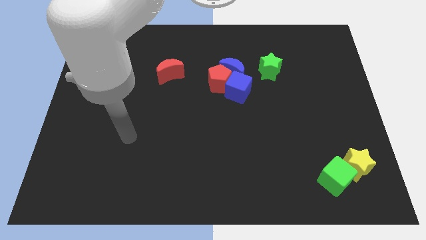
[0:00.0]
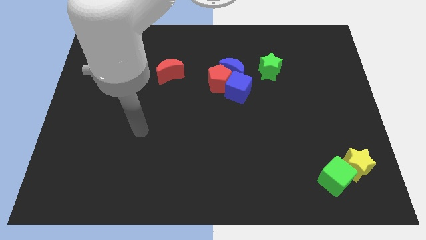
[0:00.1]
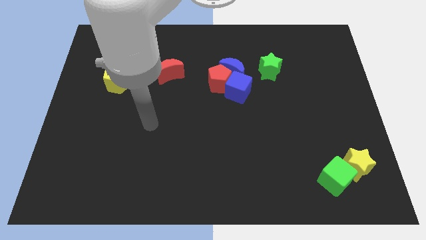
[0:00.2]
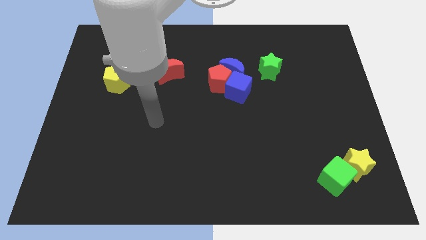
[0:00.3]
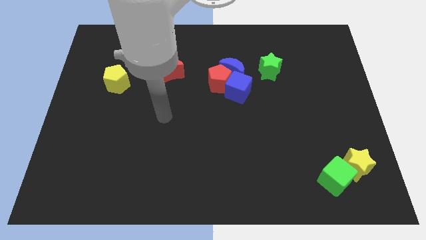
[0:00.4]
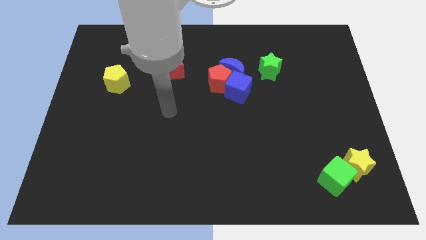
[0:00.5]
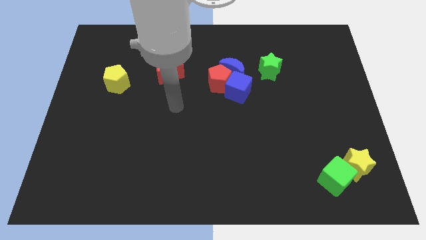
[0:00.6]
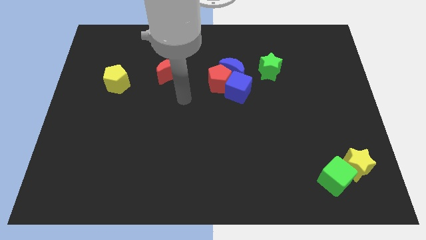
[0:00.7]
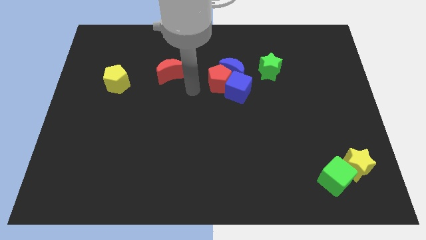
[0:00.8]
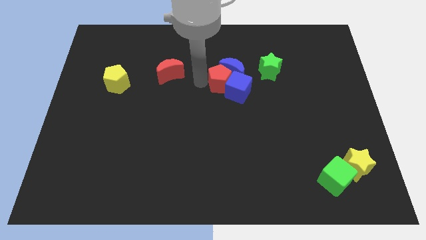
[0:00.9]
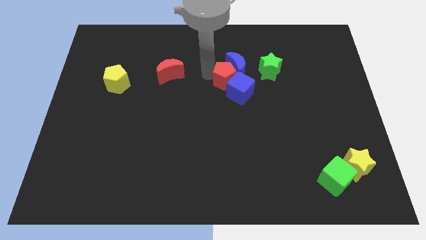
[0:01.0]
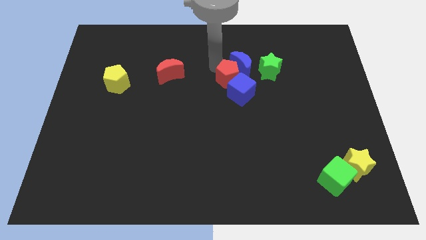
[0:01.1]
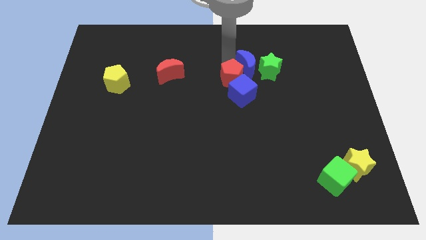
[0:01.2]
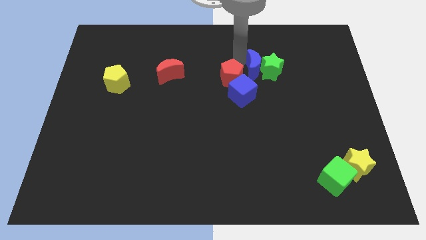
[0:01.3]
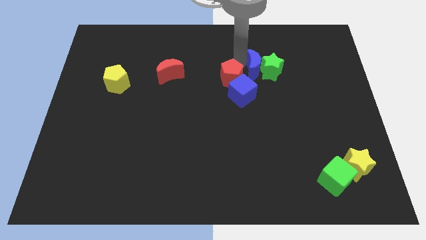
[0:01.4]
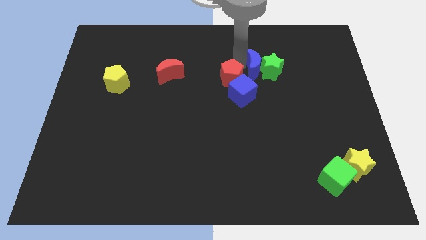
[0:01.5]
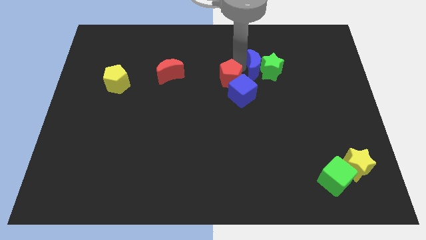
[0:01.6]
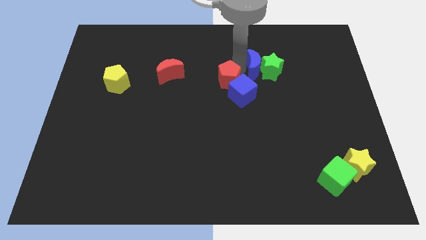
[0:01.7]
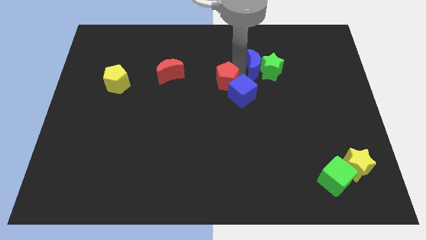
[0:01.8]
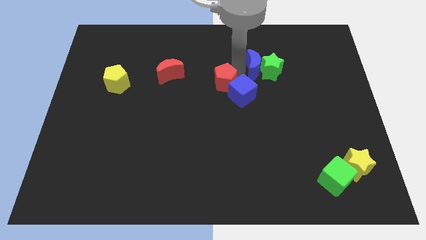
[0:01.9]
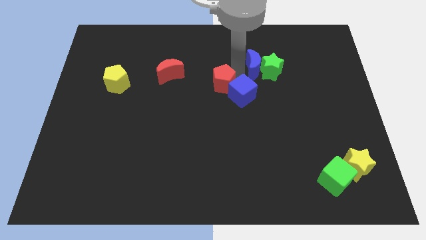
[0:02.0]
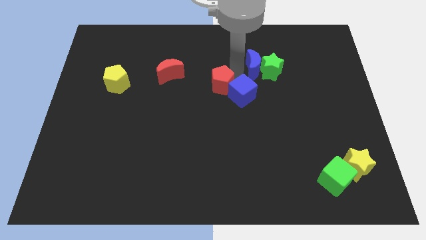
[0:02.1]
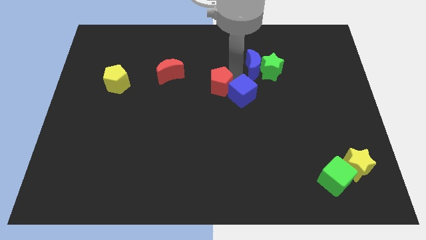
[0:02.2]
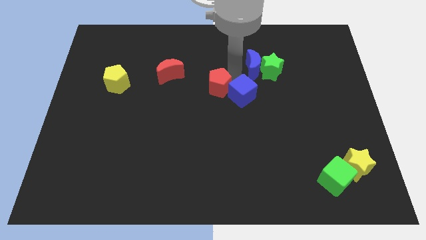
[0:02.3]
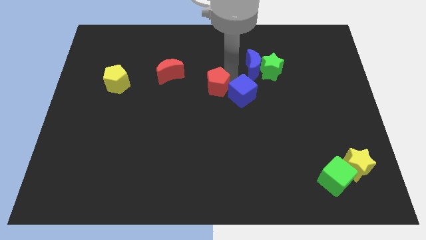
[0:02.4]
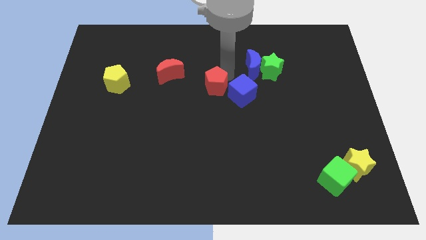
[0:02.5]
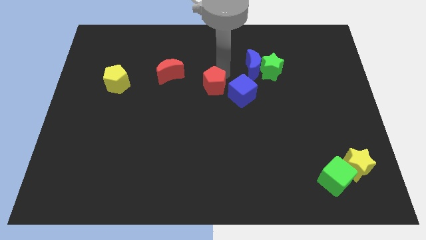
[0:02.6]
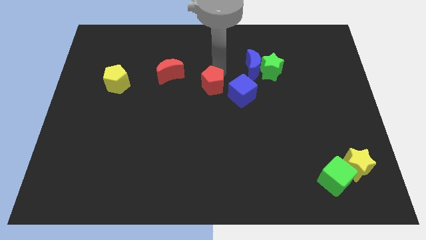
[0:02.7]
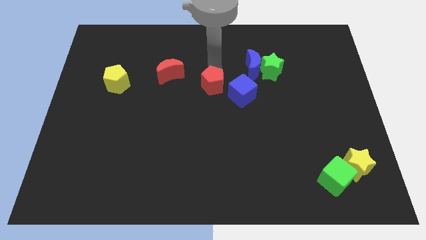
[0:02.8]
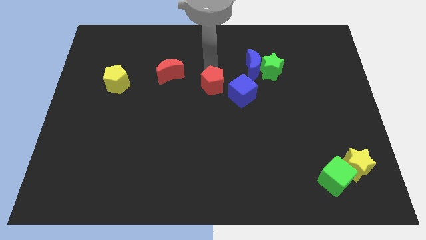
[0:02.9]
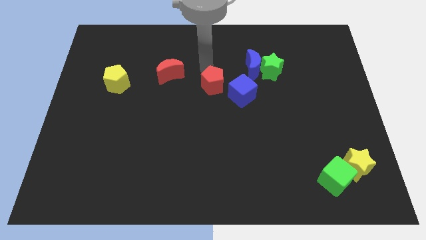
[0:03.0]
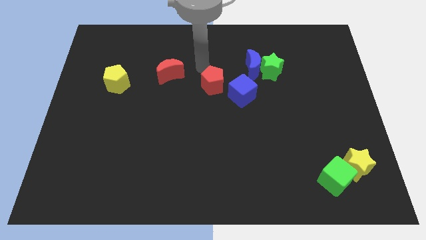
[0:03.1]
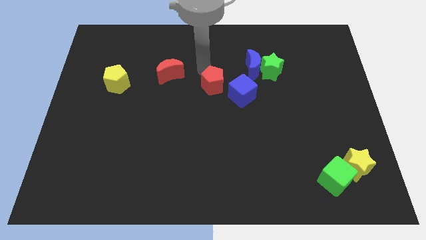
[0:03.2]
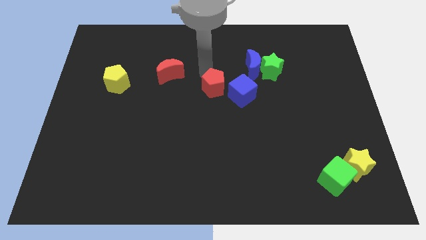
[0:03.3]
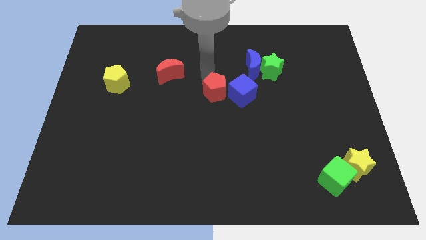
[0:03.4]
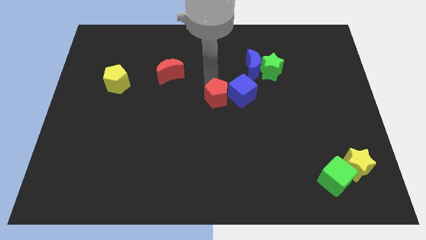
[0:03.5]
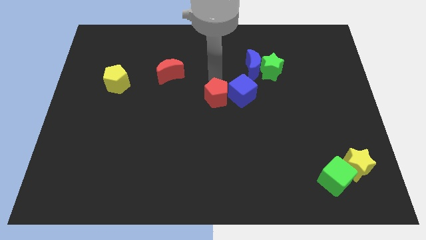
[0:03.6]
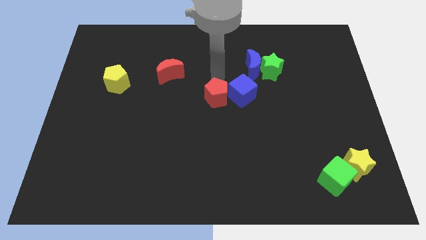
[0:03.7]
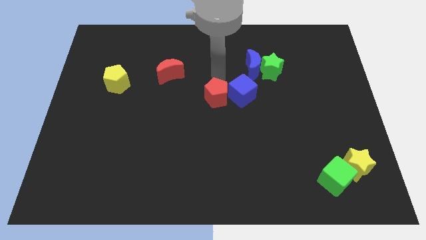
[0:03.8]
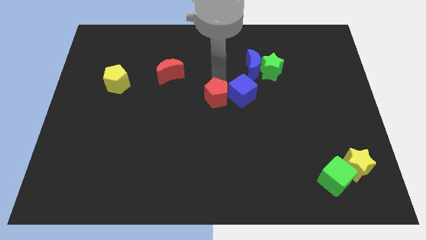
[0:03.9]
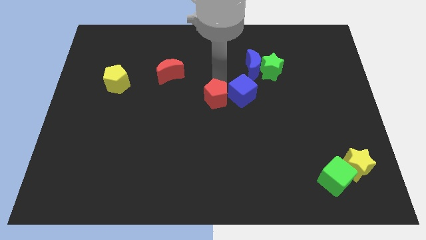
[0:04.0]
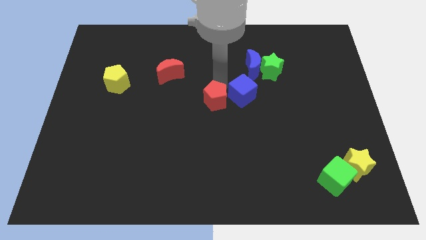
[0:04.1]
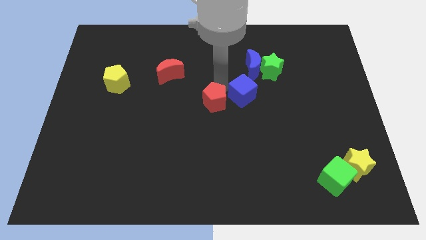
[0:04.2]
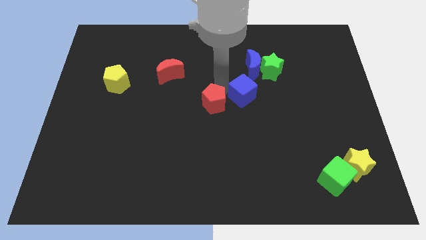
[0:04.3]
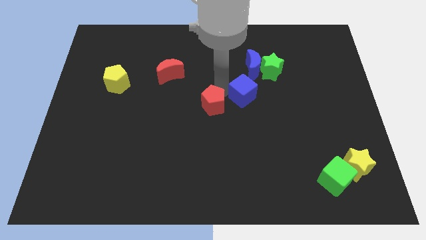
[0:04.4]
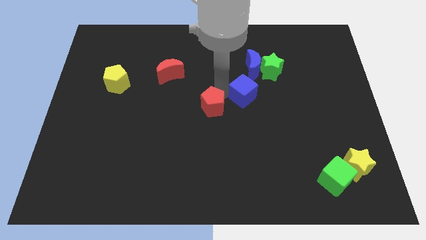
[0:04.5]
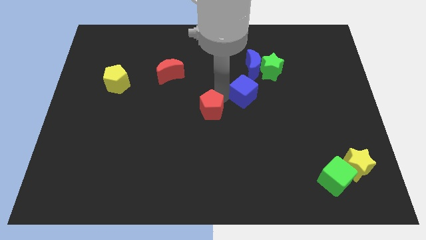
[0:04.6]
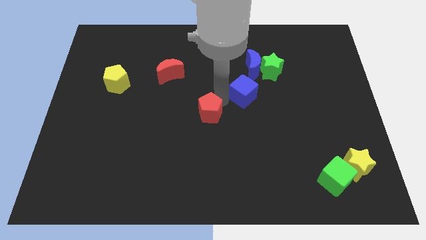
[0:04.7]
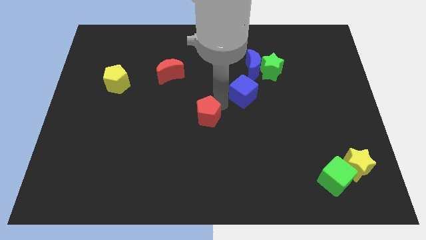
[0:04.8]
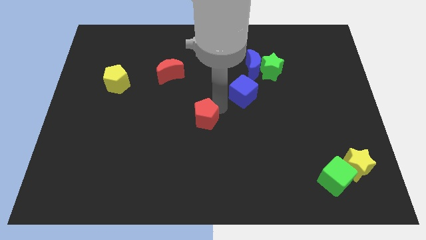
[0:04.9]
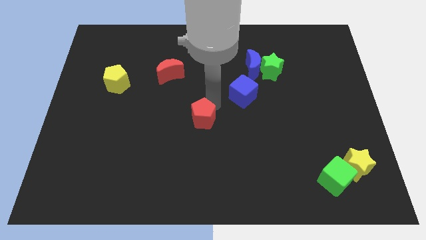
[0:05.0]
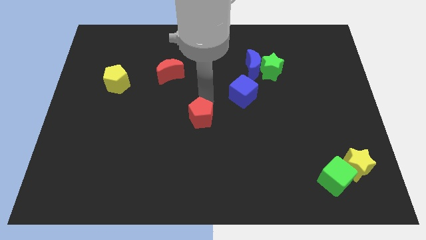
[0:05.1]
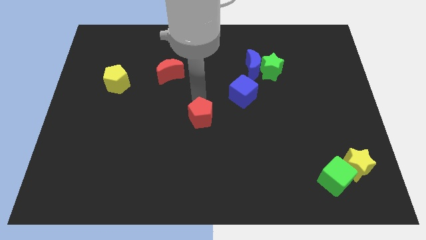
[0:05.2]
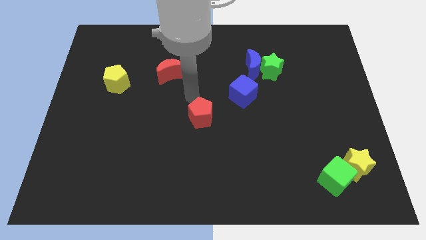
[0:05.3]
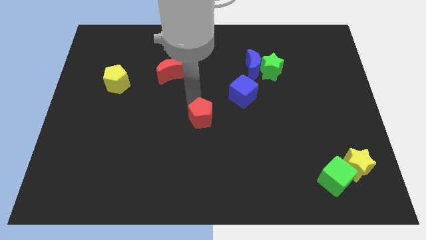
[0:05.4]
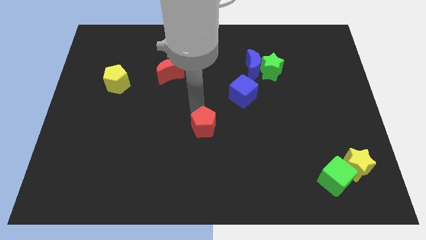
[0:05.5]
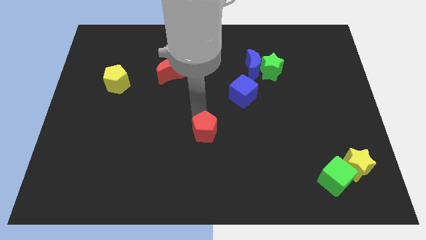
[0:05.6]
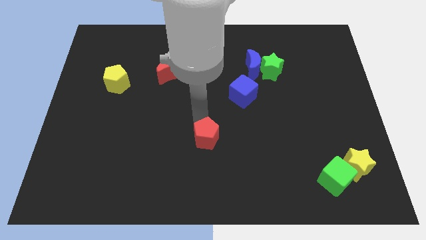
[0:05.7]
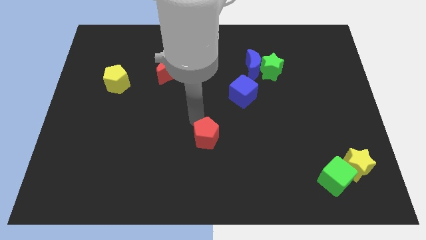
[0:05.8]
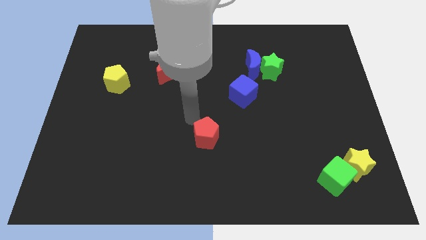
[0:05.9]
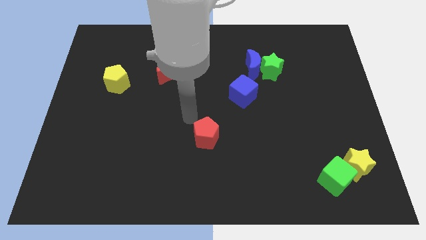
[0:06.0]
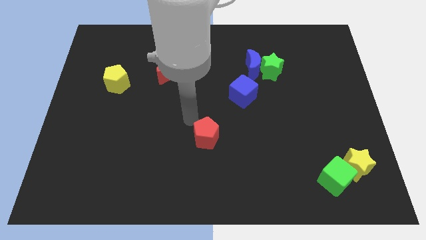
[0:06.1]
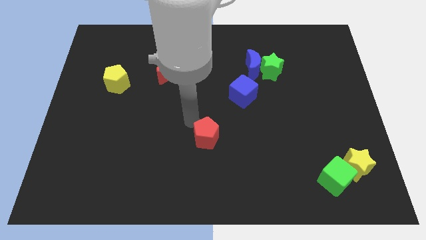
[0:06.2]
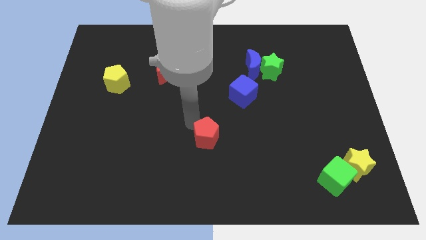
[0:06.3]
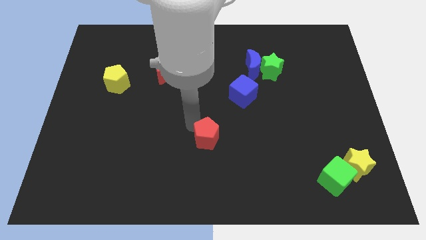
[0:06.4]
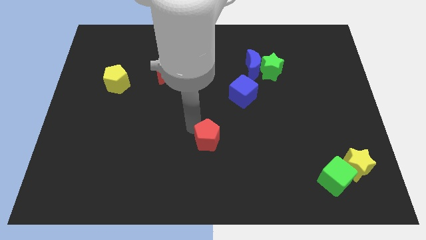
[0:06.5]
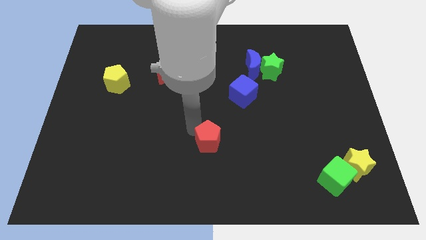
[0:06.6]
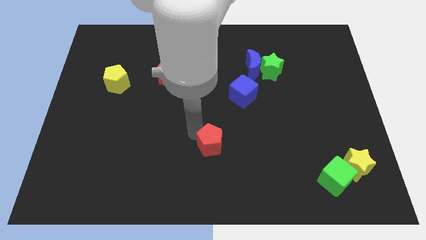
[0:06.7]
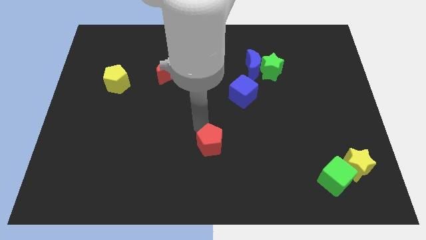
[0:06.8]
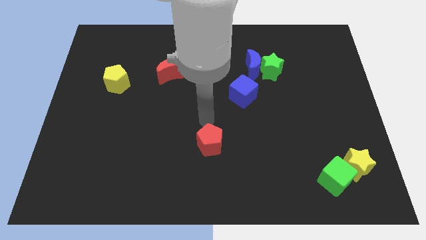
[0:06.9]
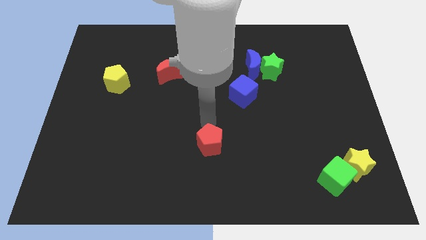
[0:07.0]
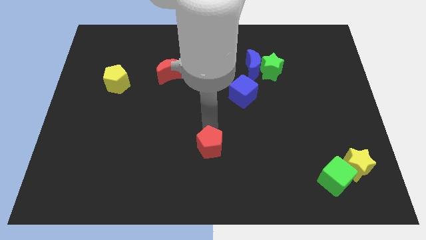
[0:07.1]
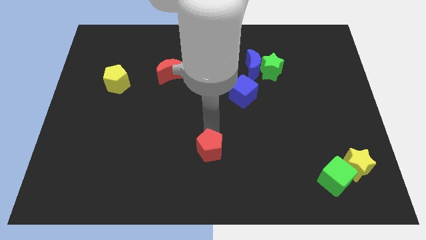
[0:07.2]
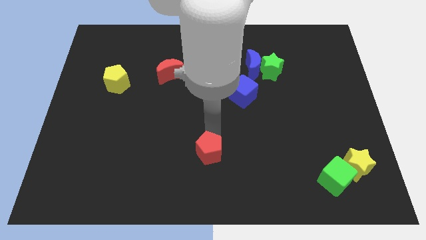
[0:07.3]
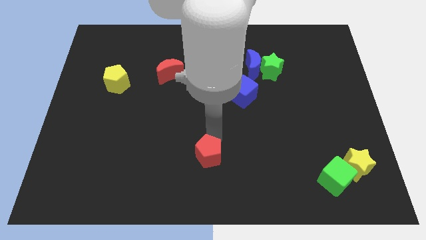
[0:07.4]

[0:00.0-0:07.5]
push the red pentagon to the bottom

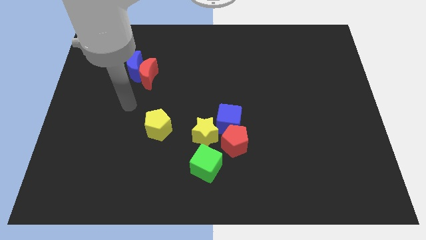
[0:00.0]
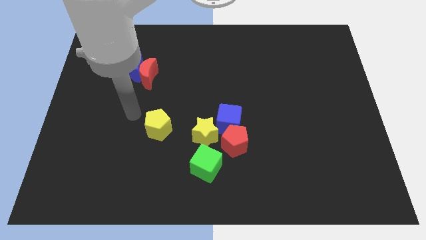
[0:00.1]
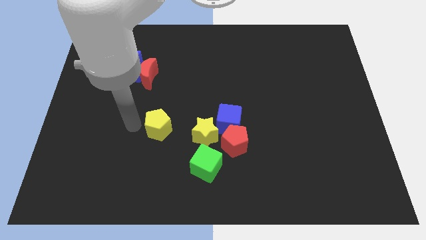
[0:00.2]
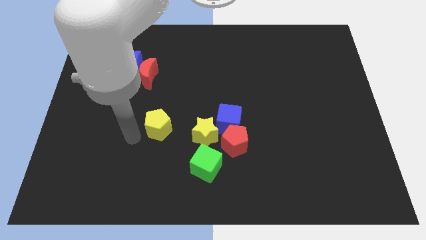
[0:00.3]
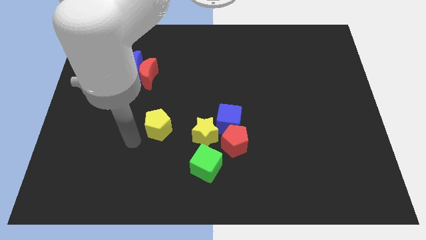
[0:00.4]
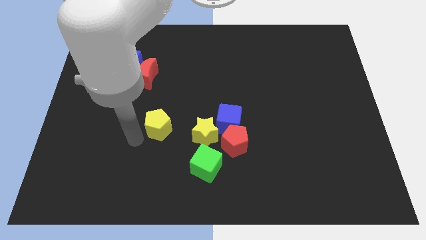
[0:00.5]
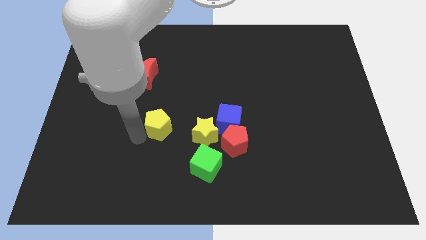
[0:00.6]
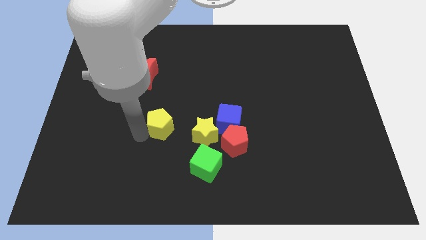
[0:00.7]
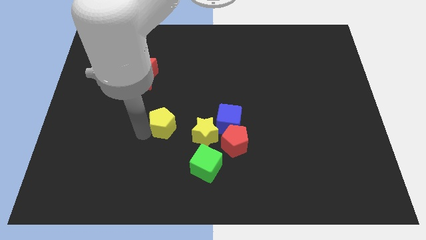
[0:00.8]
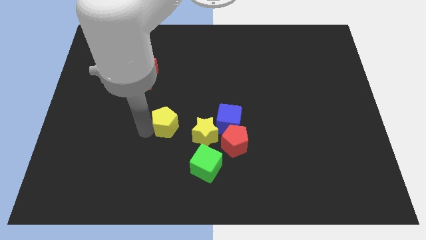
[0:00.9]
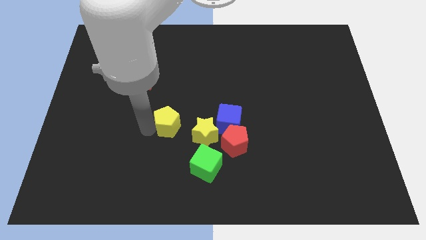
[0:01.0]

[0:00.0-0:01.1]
push the yellow pentagon to the middle of the board
